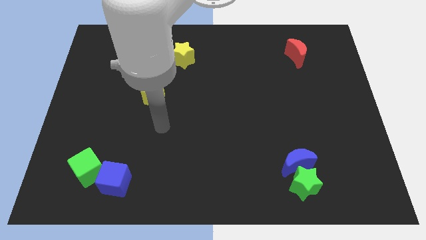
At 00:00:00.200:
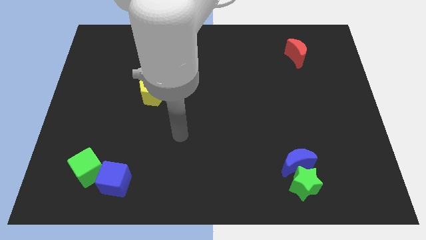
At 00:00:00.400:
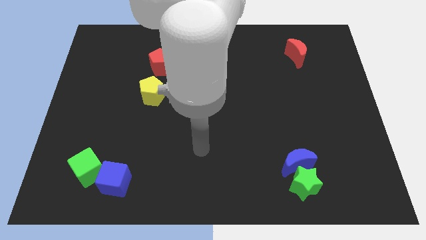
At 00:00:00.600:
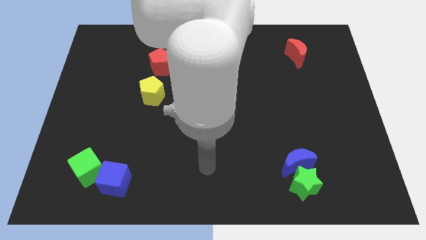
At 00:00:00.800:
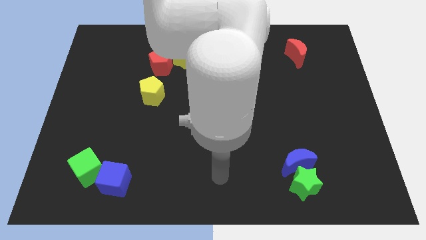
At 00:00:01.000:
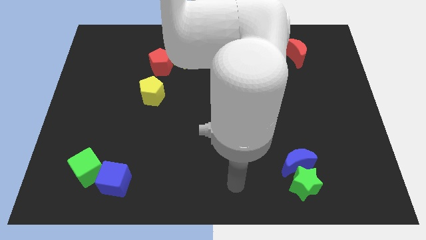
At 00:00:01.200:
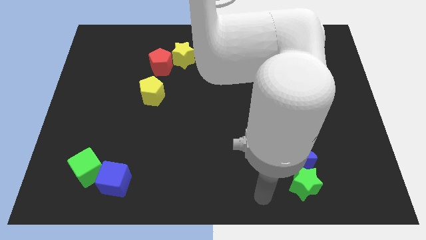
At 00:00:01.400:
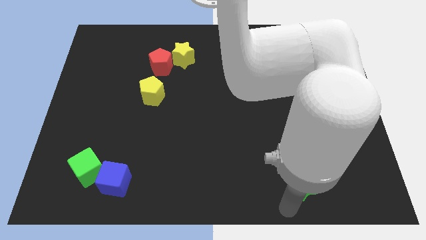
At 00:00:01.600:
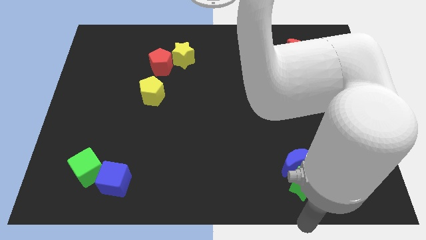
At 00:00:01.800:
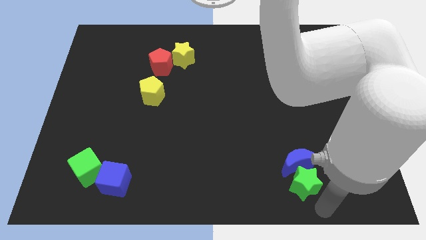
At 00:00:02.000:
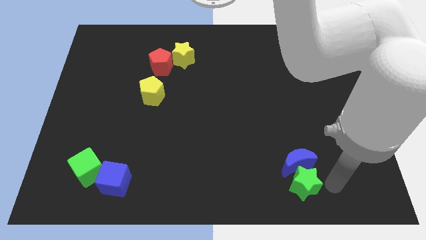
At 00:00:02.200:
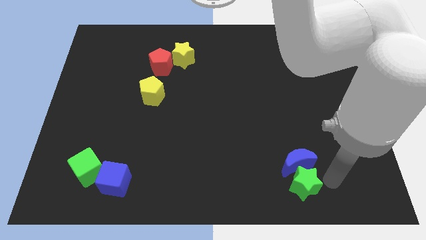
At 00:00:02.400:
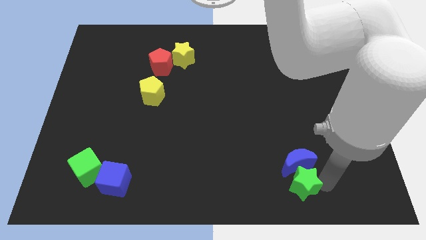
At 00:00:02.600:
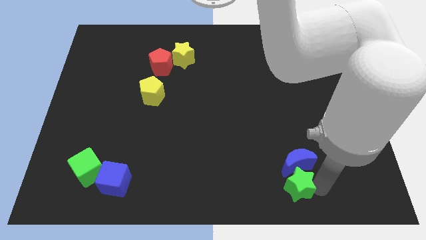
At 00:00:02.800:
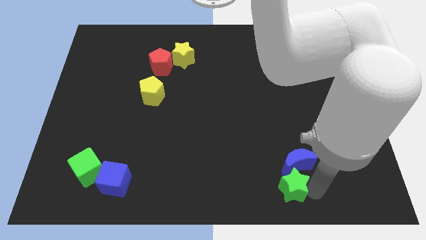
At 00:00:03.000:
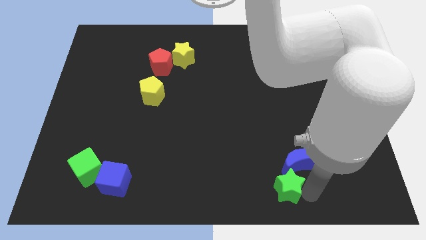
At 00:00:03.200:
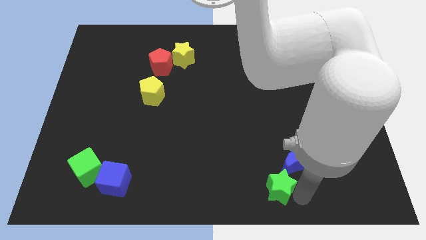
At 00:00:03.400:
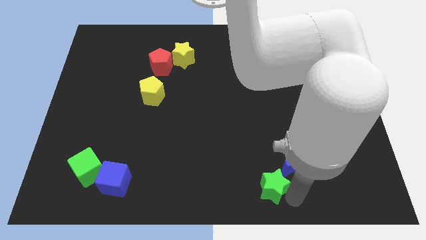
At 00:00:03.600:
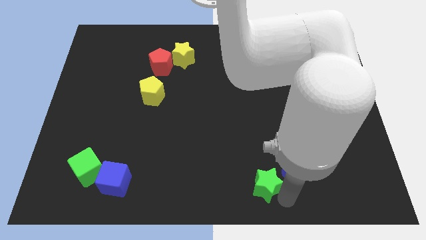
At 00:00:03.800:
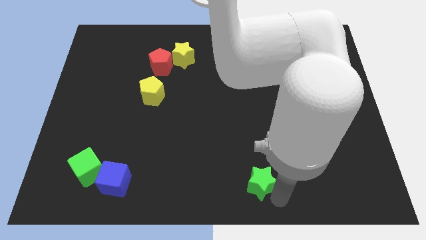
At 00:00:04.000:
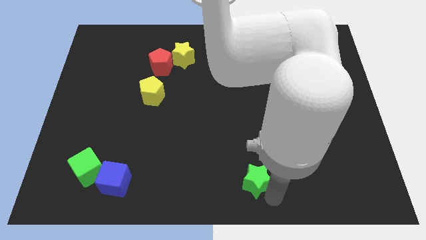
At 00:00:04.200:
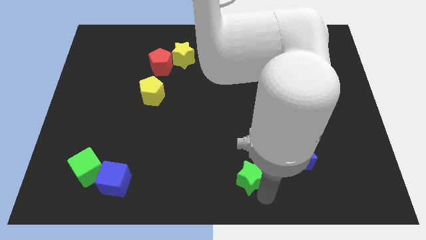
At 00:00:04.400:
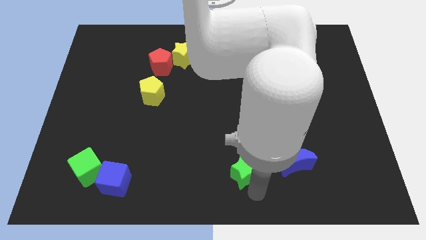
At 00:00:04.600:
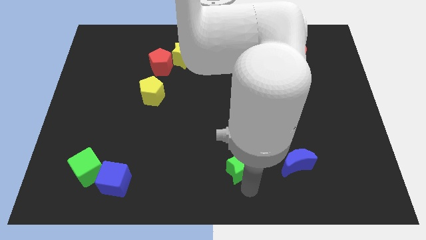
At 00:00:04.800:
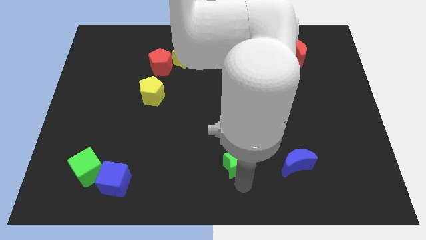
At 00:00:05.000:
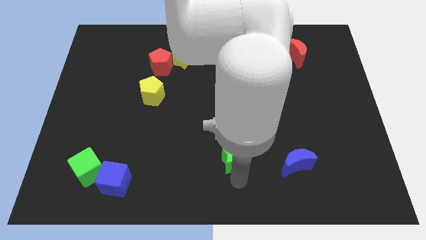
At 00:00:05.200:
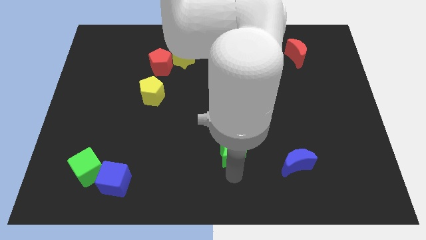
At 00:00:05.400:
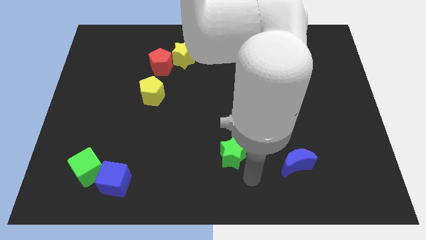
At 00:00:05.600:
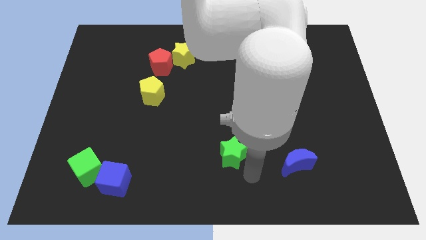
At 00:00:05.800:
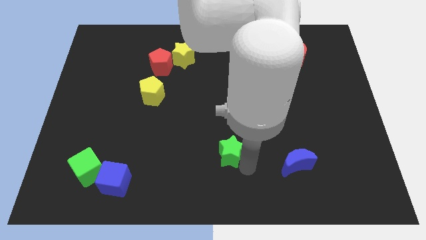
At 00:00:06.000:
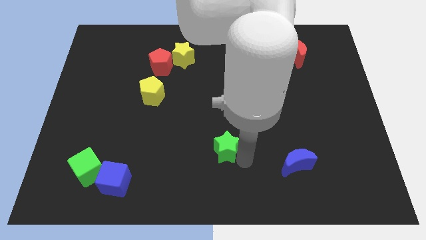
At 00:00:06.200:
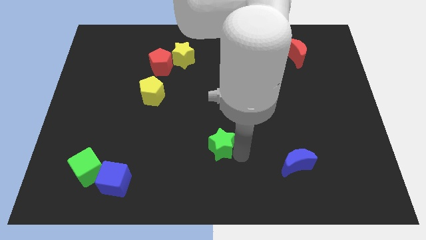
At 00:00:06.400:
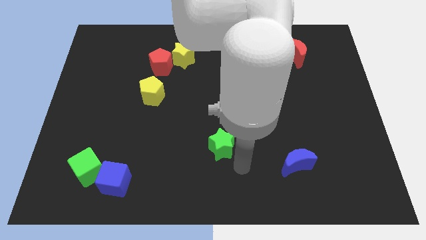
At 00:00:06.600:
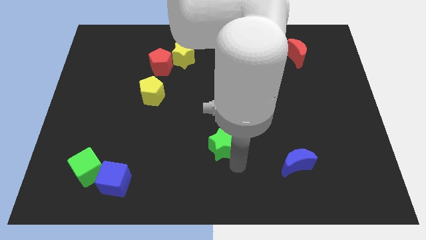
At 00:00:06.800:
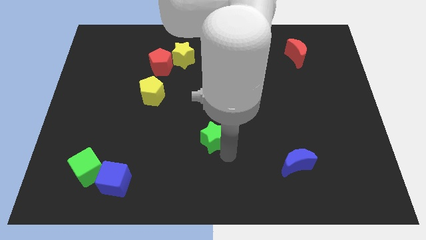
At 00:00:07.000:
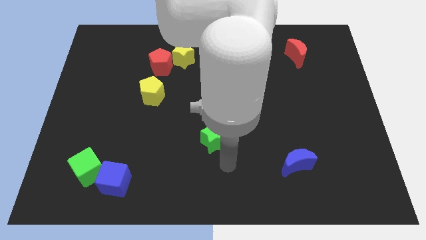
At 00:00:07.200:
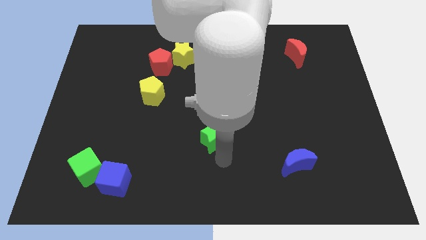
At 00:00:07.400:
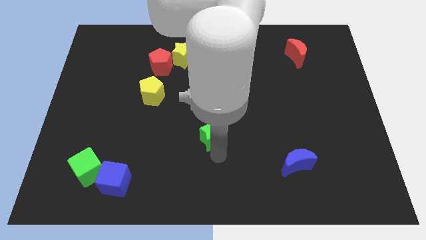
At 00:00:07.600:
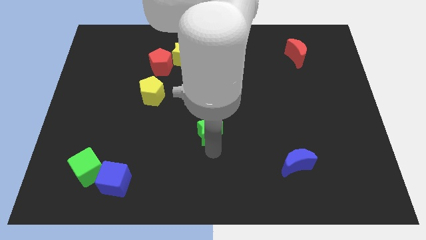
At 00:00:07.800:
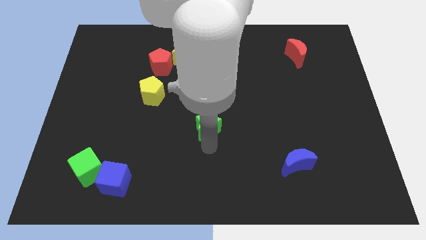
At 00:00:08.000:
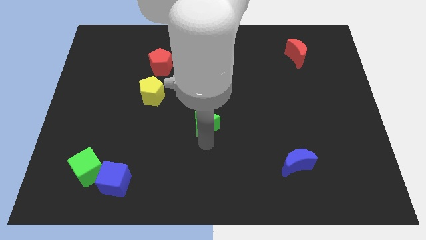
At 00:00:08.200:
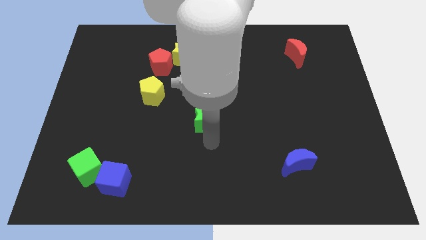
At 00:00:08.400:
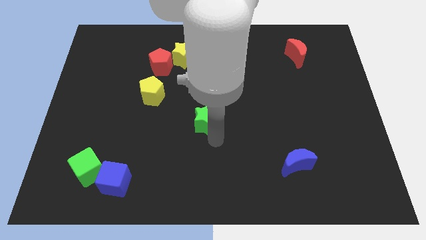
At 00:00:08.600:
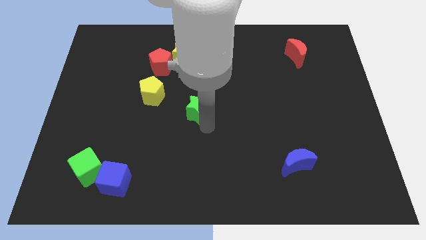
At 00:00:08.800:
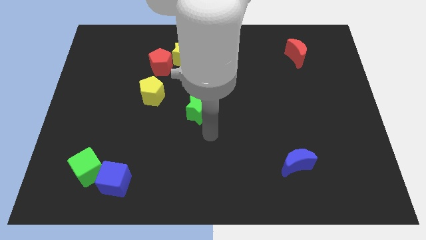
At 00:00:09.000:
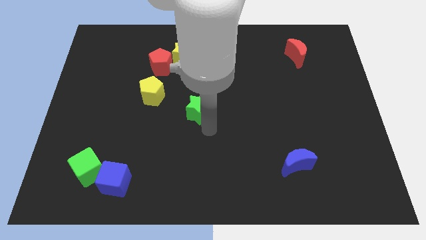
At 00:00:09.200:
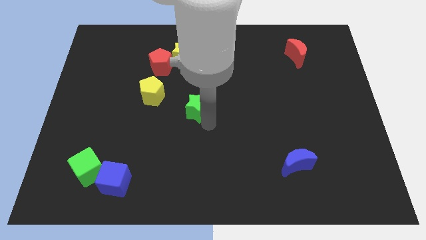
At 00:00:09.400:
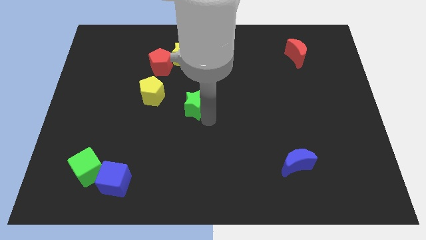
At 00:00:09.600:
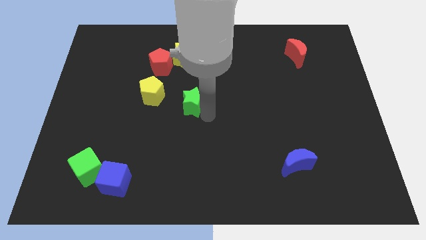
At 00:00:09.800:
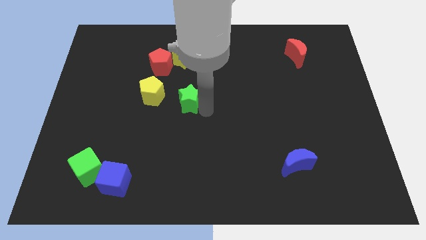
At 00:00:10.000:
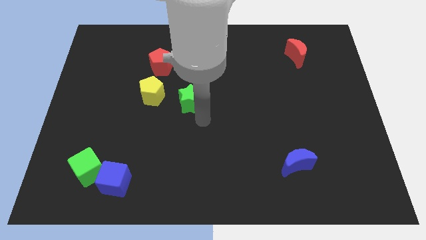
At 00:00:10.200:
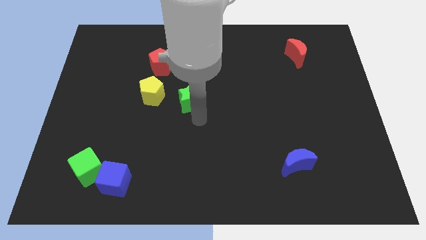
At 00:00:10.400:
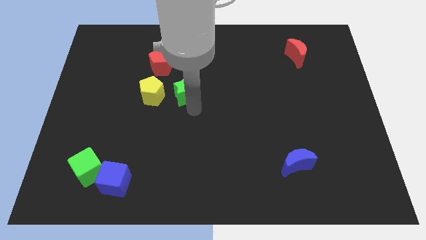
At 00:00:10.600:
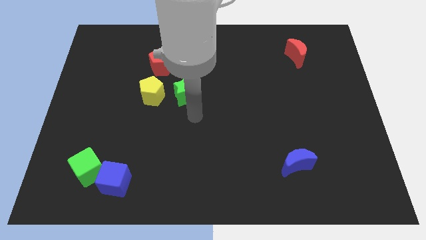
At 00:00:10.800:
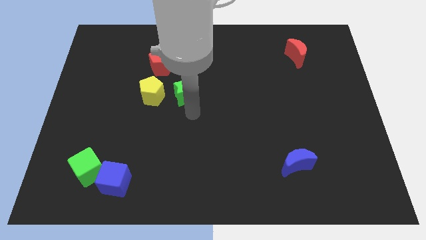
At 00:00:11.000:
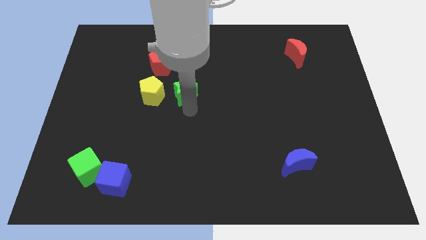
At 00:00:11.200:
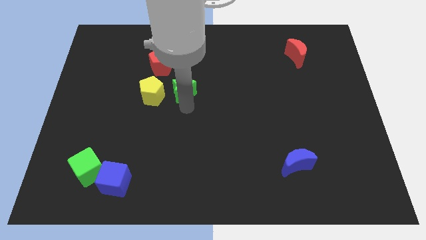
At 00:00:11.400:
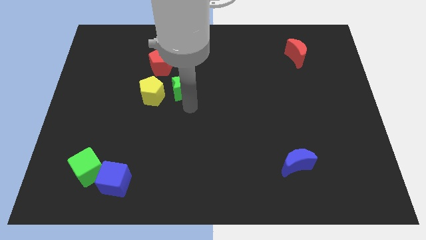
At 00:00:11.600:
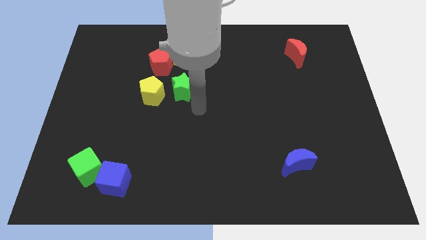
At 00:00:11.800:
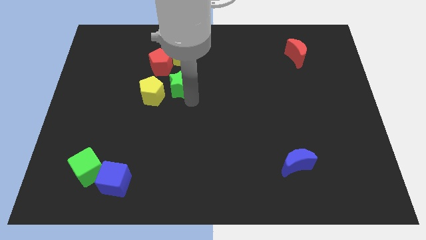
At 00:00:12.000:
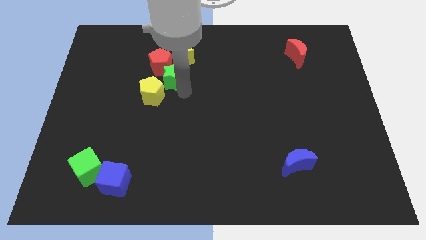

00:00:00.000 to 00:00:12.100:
push the green star towards the red pentagon
